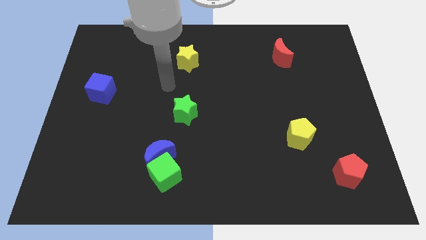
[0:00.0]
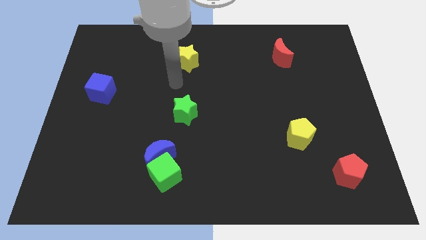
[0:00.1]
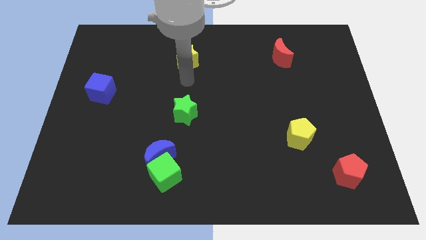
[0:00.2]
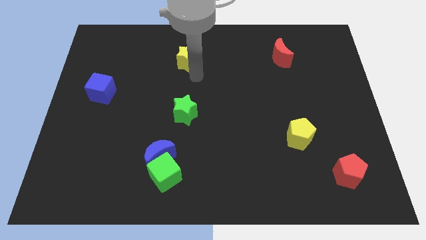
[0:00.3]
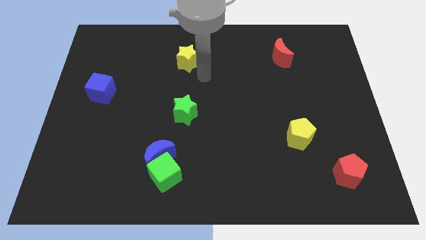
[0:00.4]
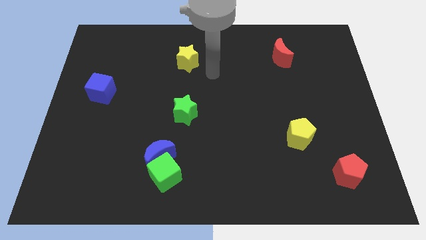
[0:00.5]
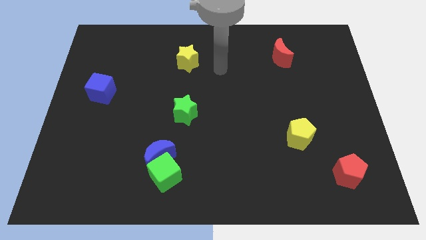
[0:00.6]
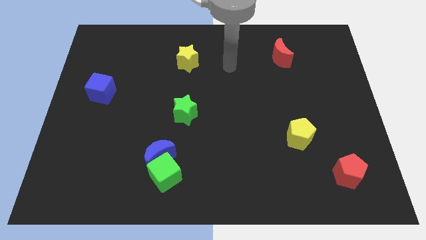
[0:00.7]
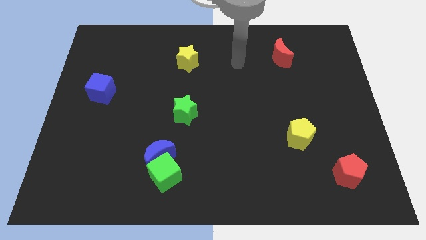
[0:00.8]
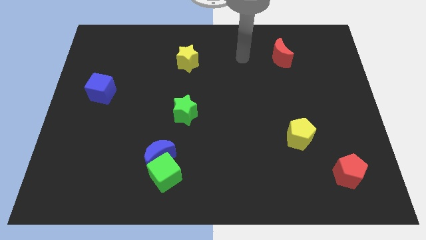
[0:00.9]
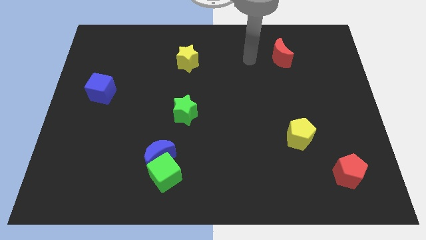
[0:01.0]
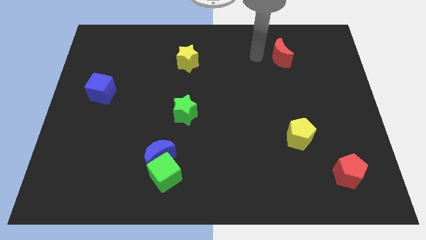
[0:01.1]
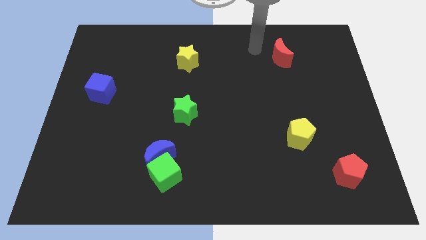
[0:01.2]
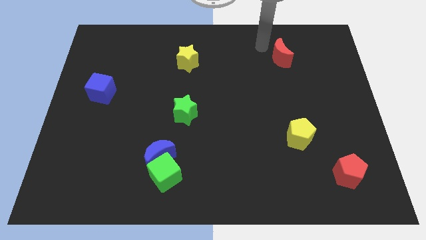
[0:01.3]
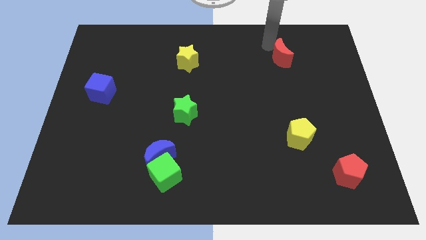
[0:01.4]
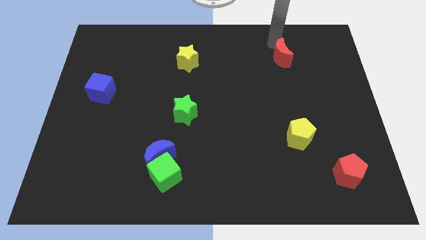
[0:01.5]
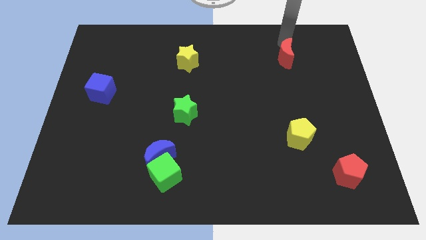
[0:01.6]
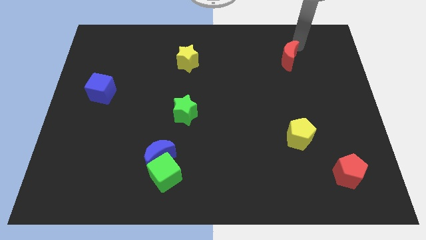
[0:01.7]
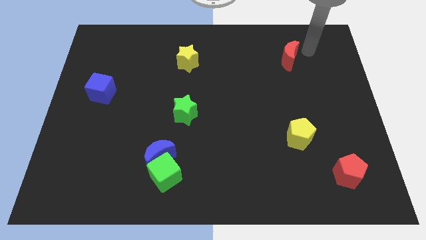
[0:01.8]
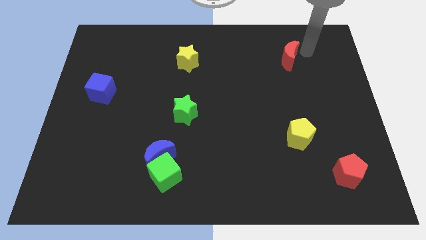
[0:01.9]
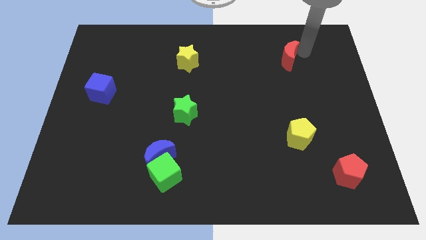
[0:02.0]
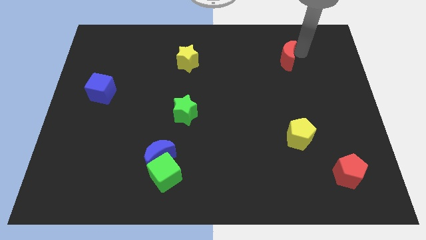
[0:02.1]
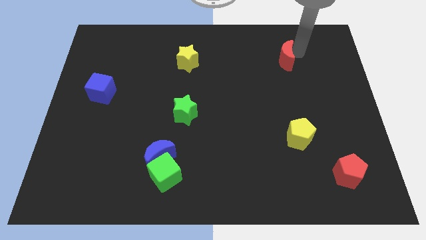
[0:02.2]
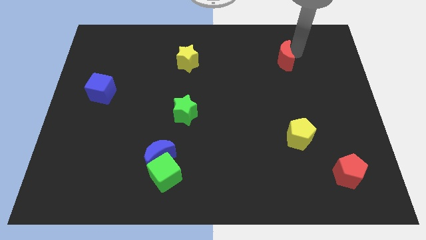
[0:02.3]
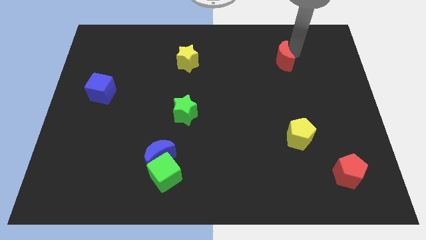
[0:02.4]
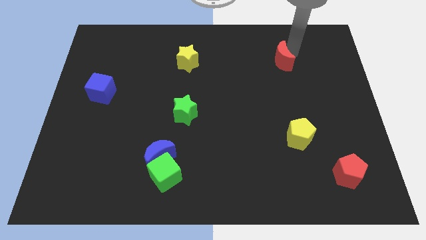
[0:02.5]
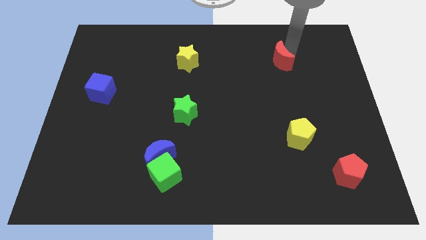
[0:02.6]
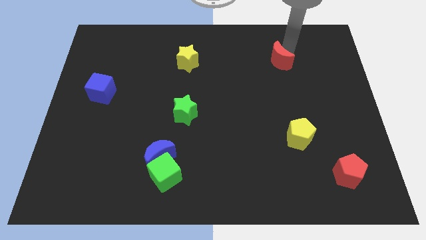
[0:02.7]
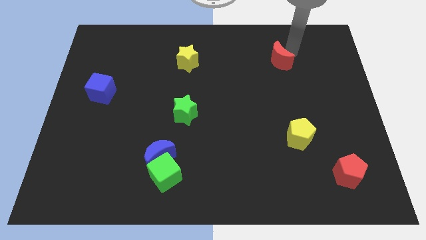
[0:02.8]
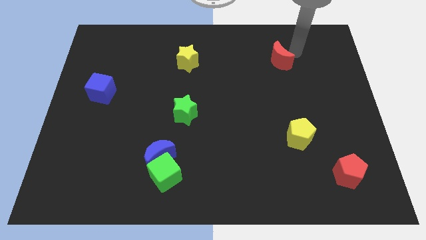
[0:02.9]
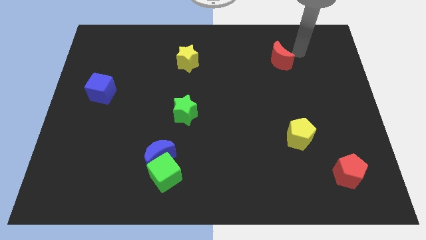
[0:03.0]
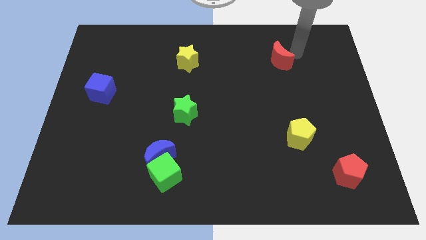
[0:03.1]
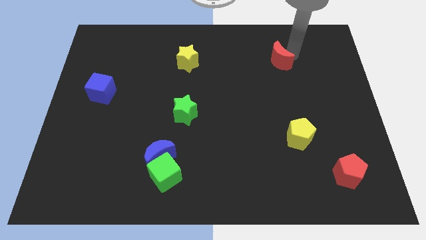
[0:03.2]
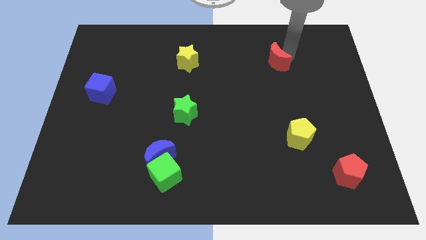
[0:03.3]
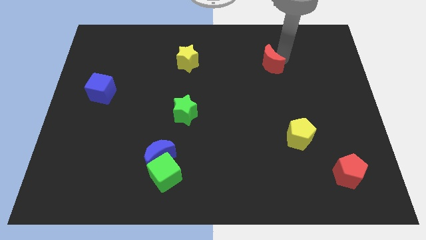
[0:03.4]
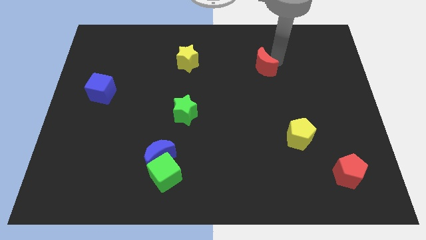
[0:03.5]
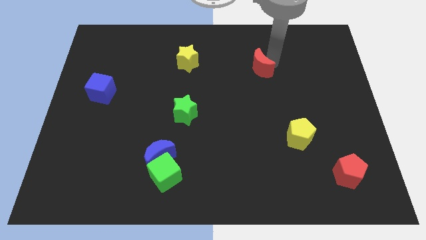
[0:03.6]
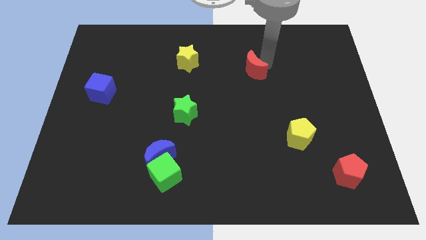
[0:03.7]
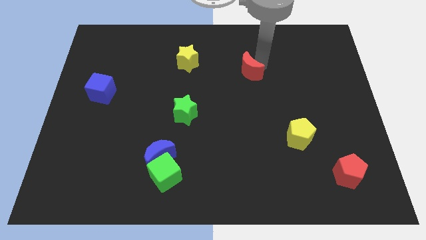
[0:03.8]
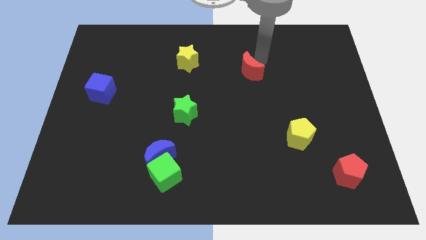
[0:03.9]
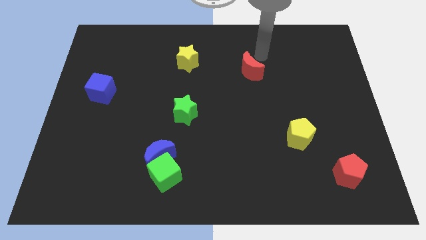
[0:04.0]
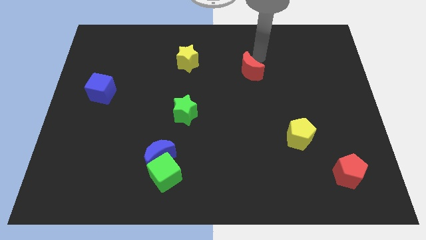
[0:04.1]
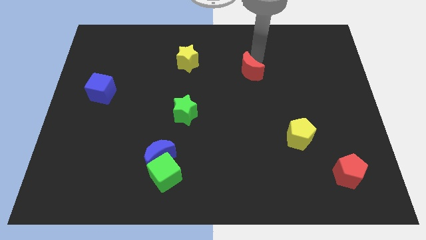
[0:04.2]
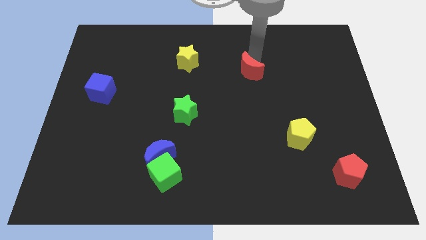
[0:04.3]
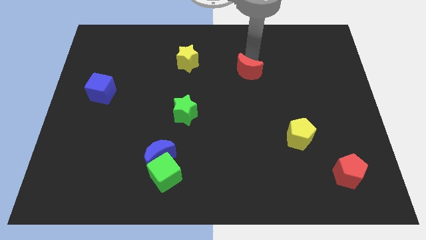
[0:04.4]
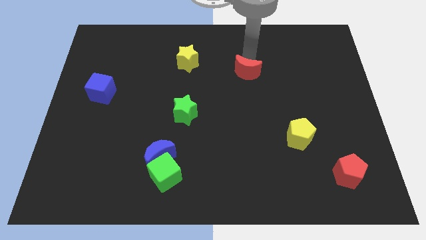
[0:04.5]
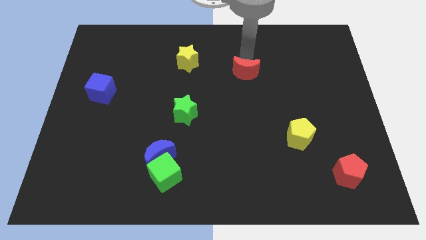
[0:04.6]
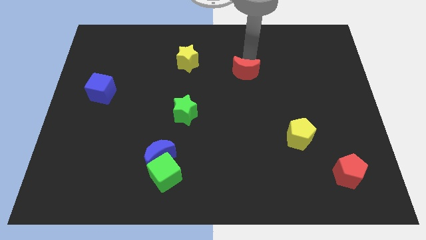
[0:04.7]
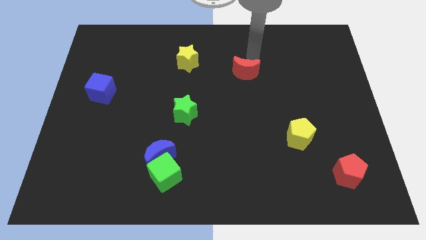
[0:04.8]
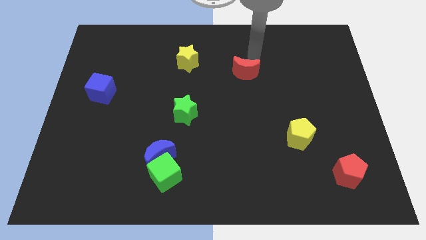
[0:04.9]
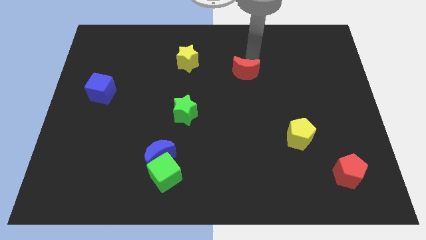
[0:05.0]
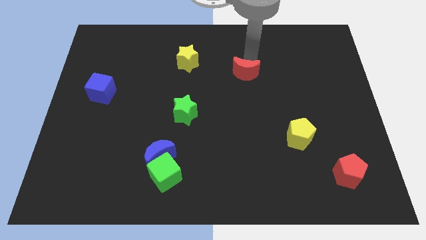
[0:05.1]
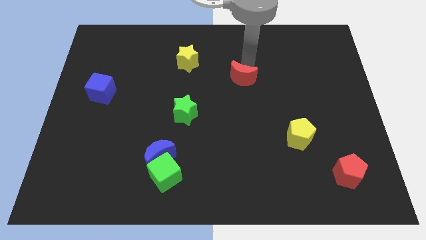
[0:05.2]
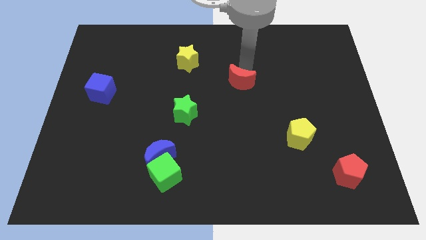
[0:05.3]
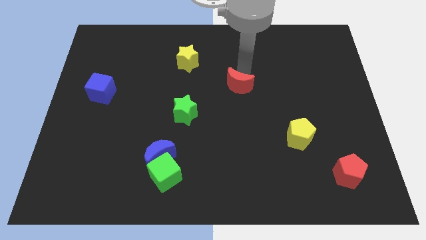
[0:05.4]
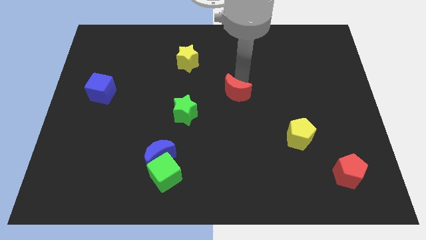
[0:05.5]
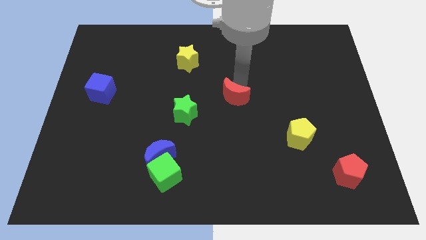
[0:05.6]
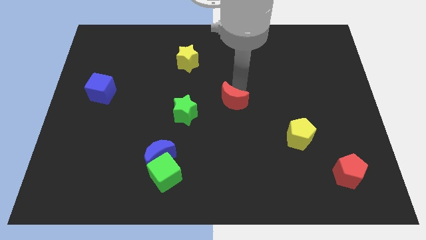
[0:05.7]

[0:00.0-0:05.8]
slide the red moon downwards and then to the left

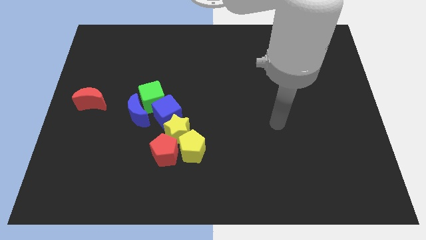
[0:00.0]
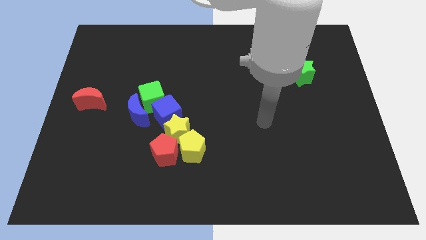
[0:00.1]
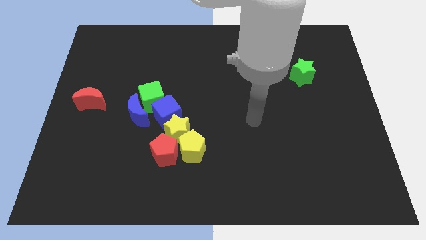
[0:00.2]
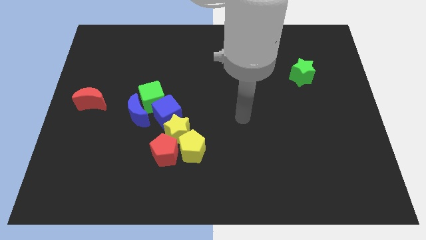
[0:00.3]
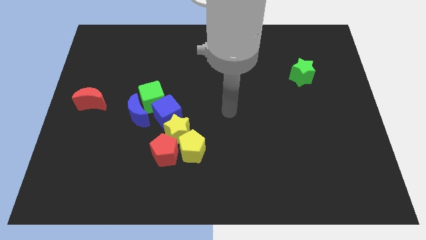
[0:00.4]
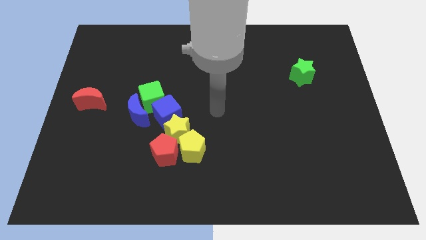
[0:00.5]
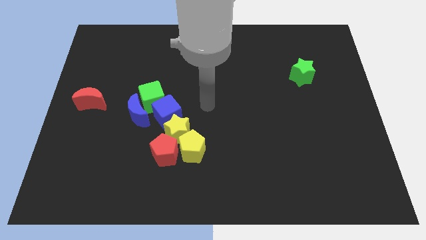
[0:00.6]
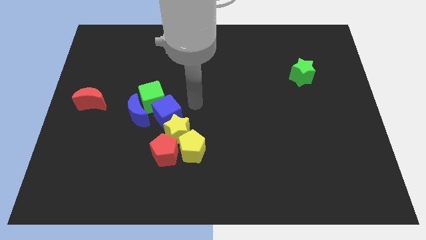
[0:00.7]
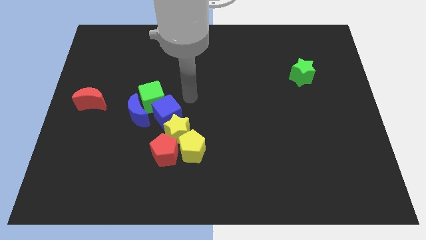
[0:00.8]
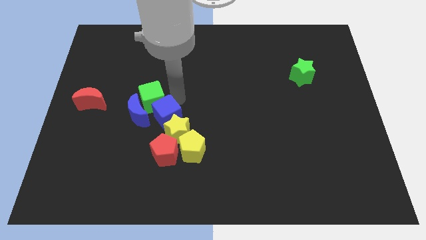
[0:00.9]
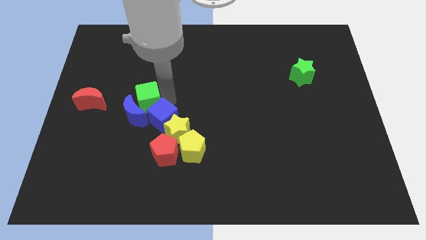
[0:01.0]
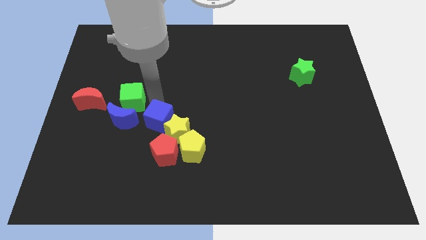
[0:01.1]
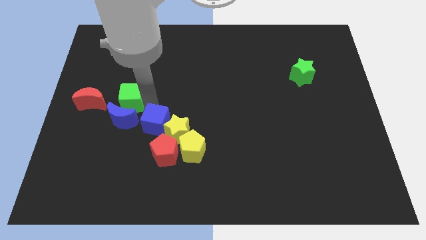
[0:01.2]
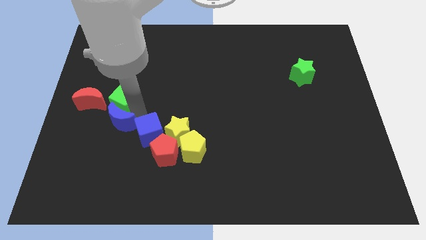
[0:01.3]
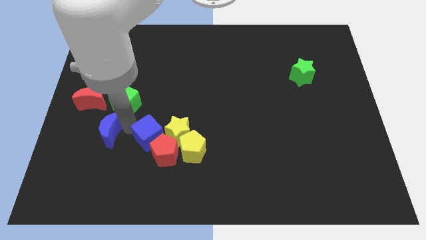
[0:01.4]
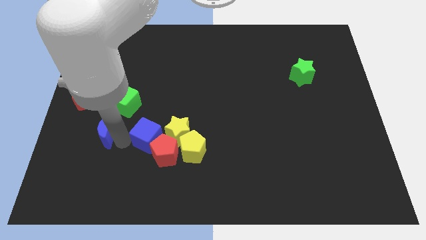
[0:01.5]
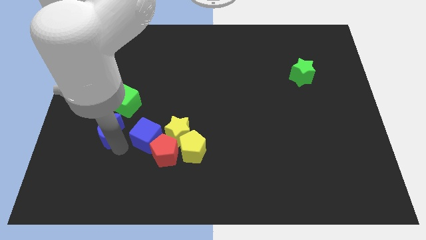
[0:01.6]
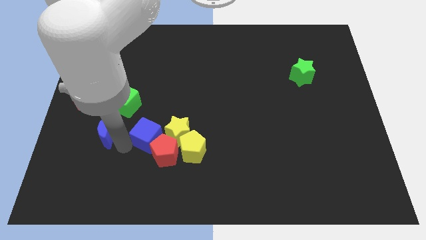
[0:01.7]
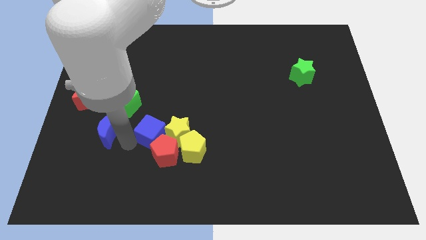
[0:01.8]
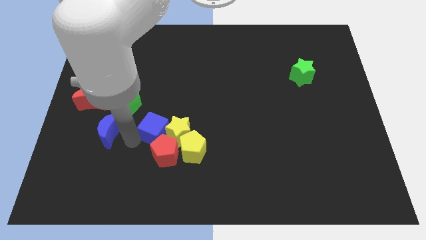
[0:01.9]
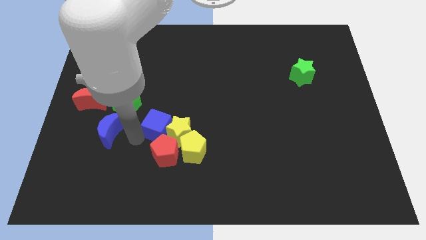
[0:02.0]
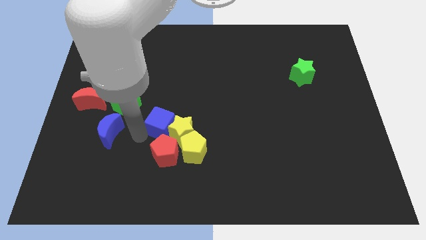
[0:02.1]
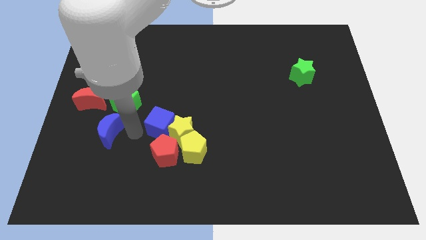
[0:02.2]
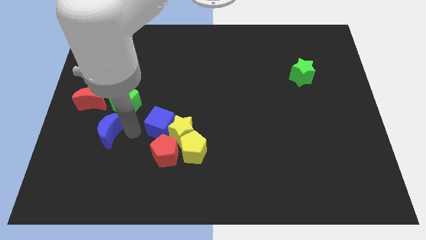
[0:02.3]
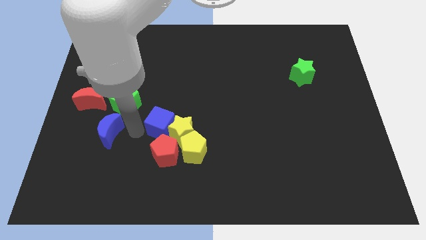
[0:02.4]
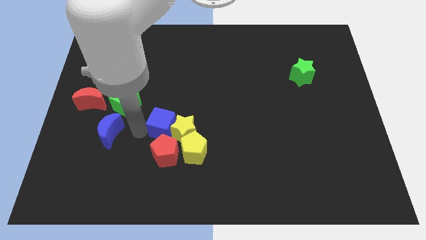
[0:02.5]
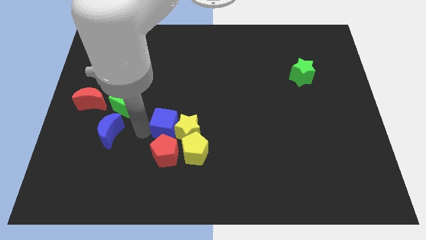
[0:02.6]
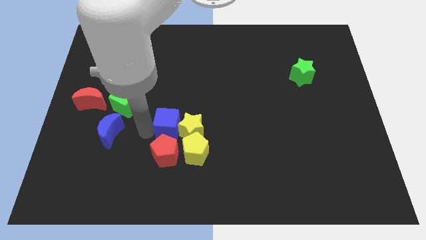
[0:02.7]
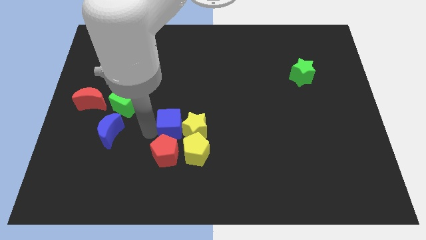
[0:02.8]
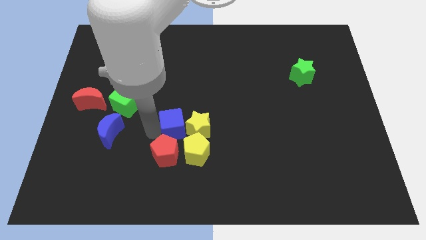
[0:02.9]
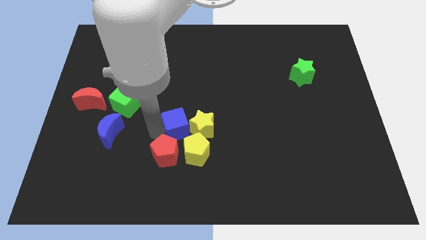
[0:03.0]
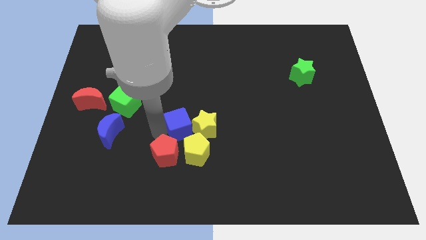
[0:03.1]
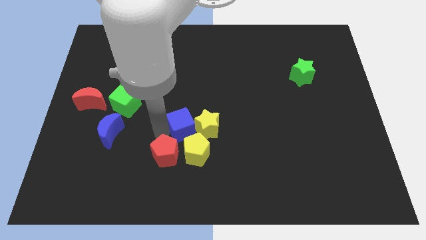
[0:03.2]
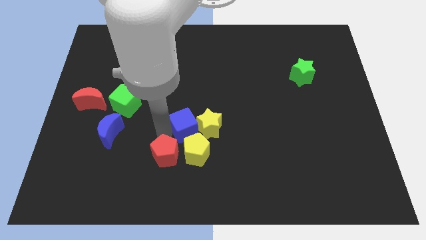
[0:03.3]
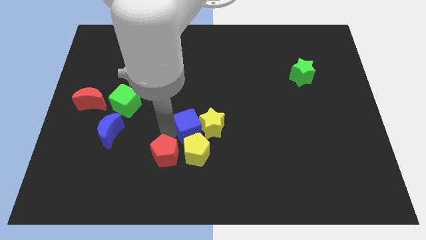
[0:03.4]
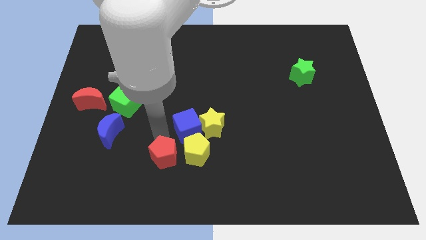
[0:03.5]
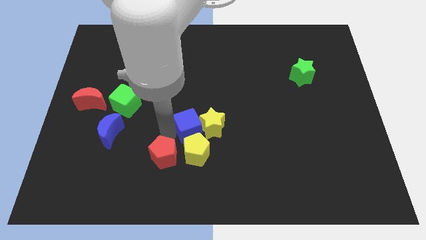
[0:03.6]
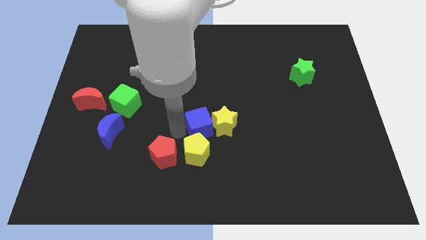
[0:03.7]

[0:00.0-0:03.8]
push the blue cube right slightly
